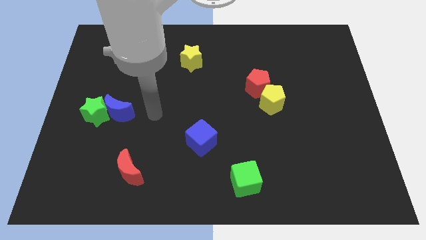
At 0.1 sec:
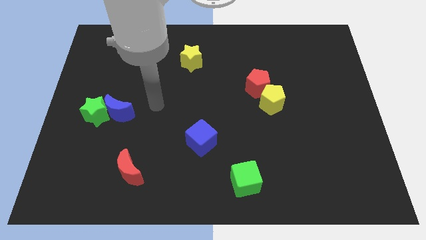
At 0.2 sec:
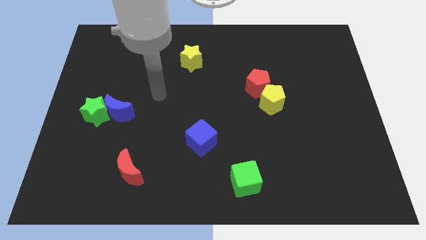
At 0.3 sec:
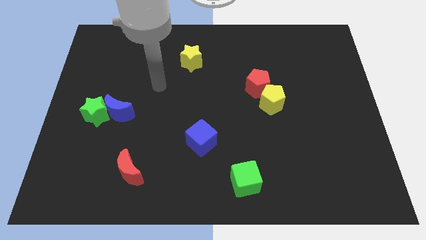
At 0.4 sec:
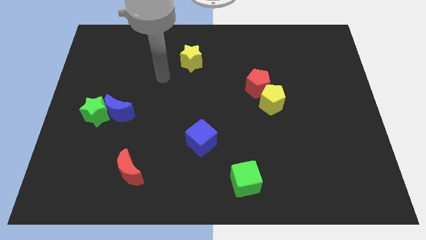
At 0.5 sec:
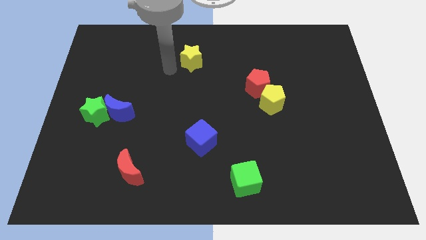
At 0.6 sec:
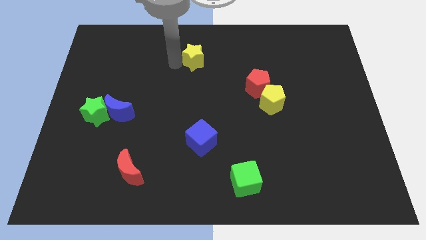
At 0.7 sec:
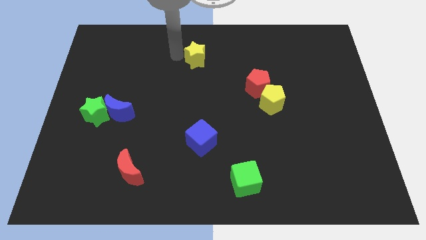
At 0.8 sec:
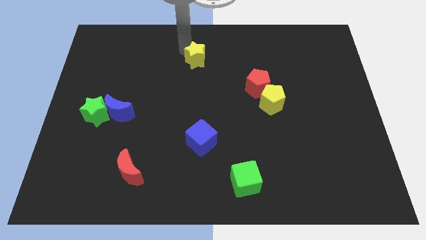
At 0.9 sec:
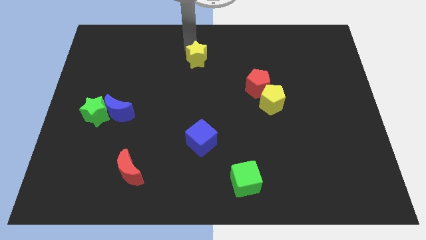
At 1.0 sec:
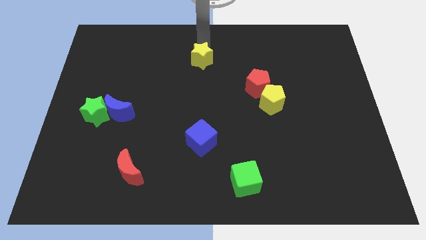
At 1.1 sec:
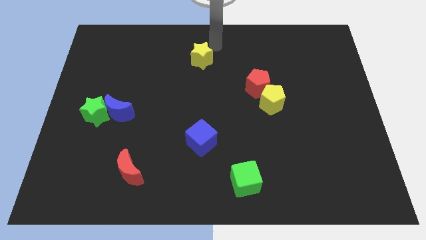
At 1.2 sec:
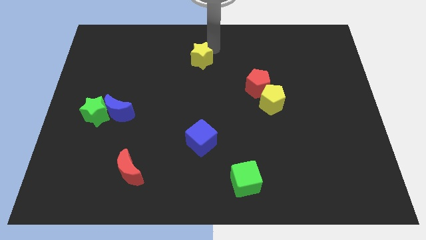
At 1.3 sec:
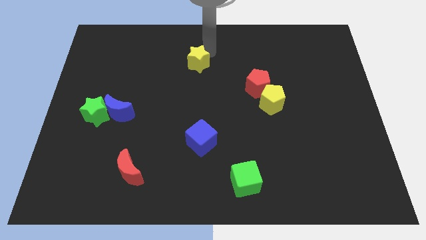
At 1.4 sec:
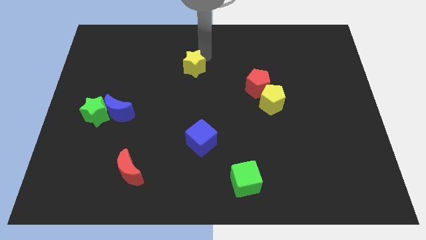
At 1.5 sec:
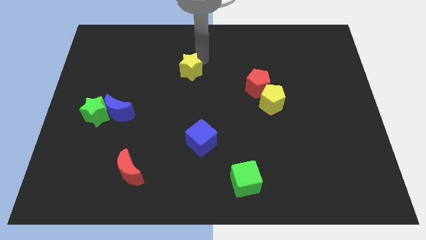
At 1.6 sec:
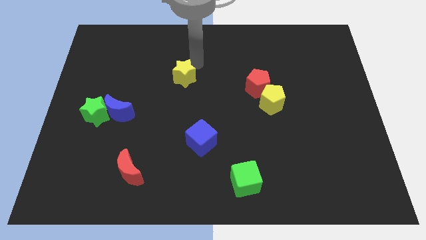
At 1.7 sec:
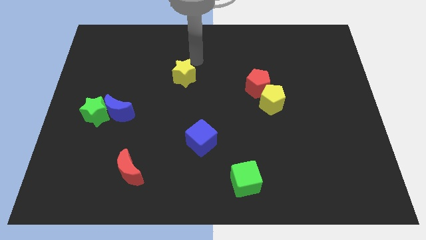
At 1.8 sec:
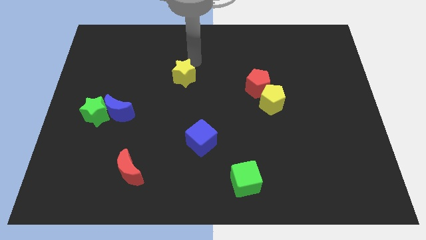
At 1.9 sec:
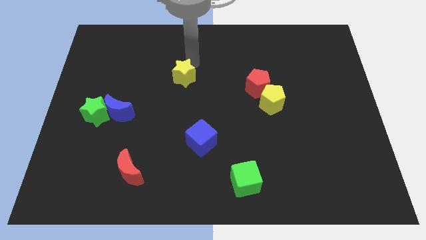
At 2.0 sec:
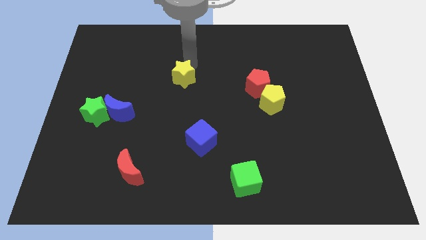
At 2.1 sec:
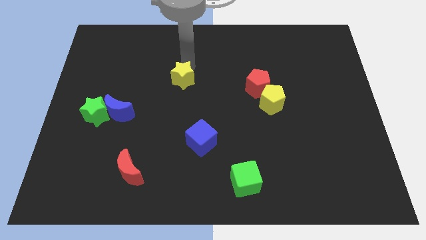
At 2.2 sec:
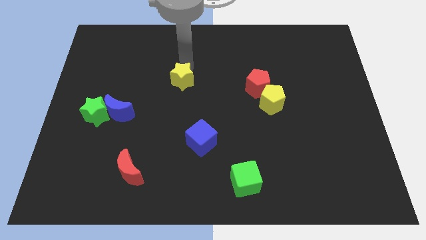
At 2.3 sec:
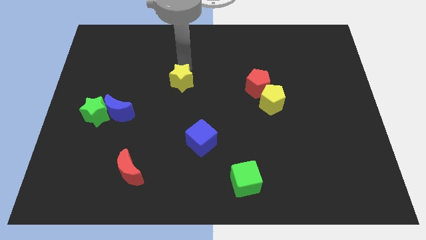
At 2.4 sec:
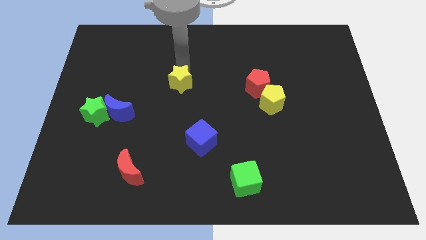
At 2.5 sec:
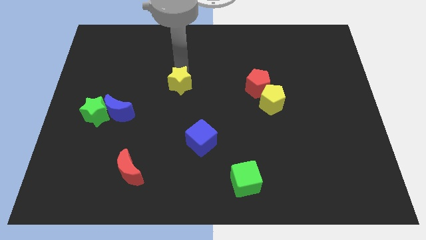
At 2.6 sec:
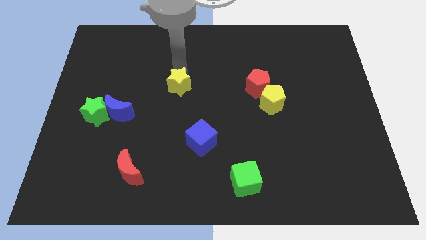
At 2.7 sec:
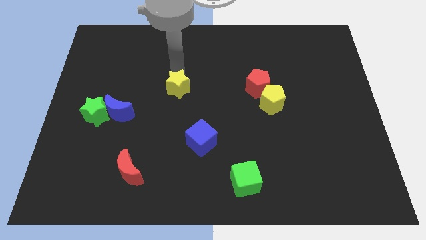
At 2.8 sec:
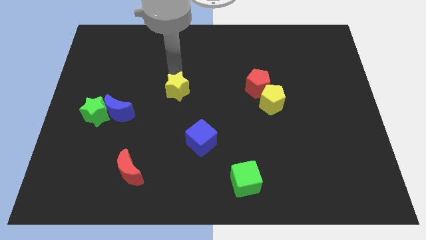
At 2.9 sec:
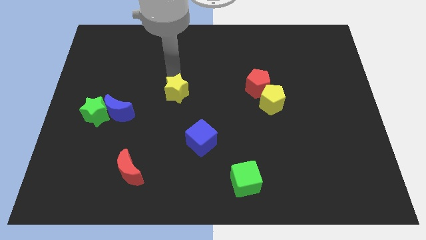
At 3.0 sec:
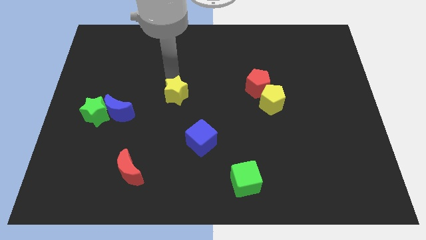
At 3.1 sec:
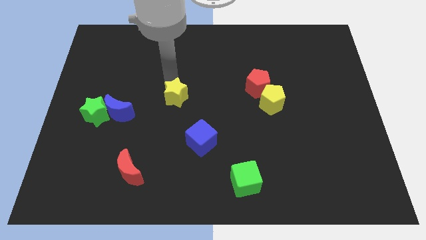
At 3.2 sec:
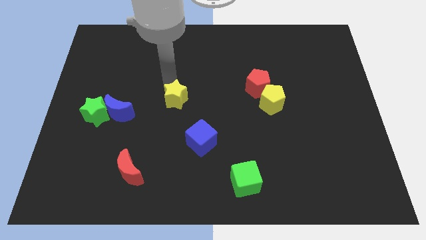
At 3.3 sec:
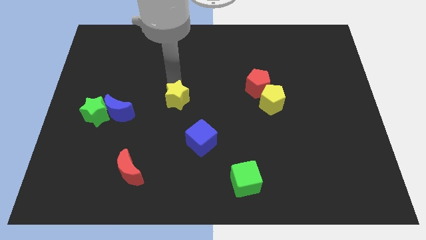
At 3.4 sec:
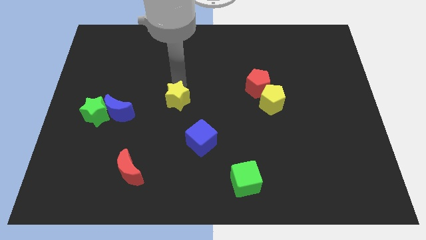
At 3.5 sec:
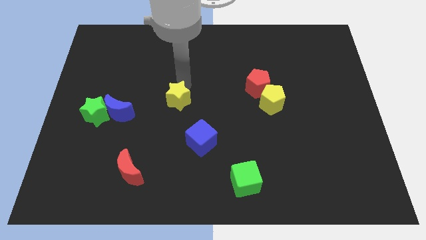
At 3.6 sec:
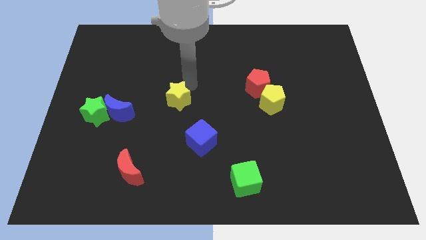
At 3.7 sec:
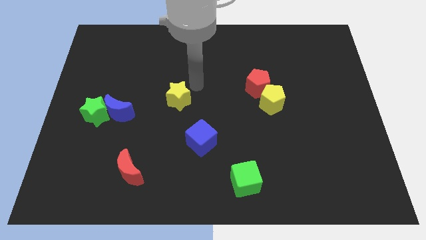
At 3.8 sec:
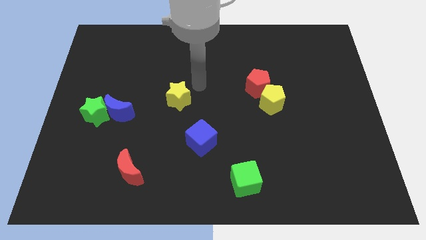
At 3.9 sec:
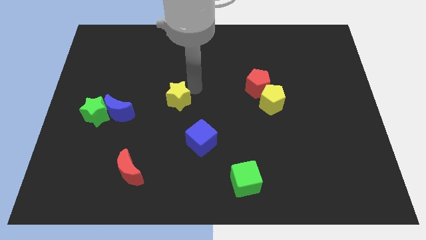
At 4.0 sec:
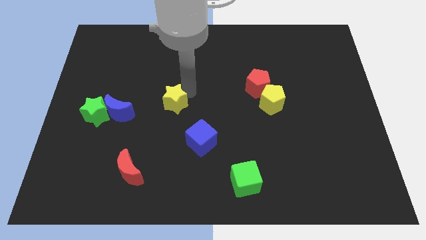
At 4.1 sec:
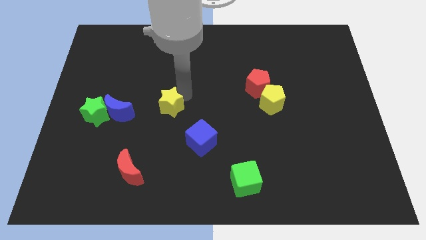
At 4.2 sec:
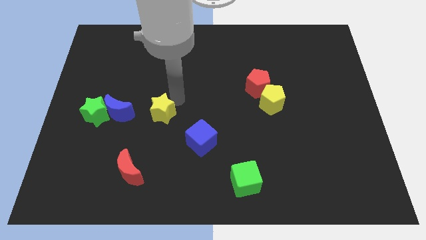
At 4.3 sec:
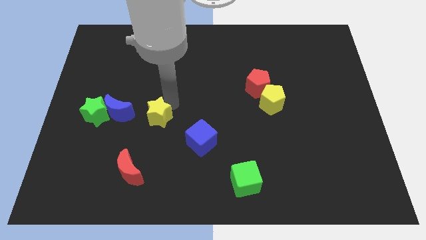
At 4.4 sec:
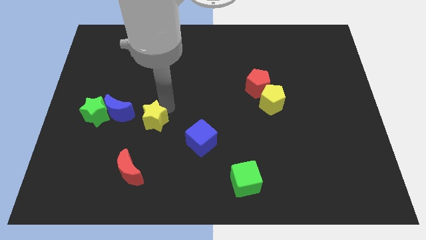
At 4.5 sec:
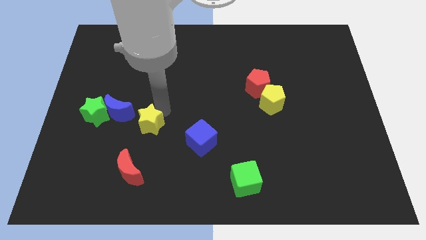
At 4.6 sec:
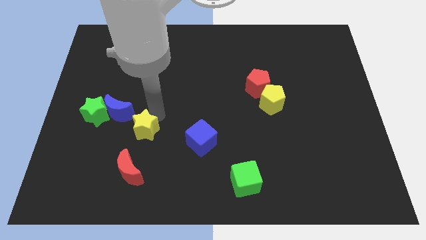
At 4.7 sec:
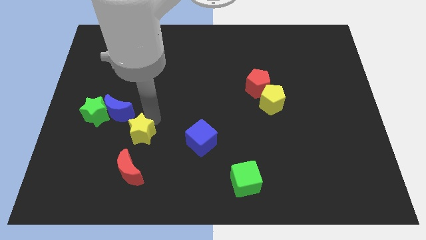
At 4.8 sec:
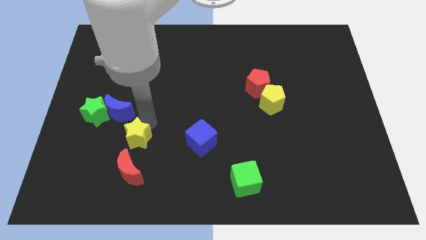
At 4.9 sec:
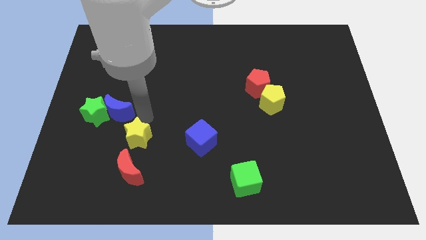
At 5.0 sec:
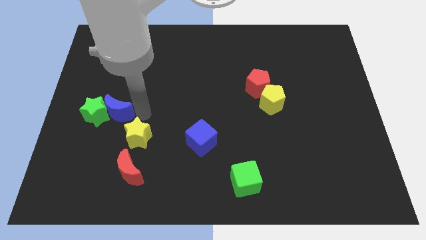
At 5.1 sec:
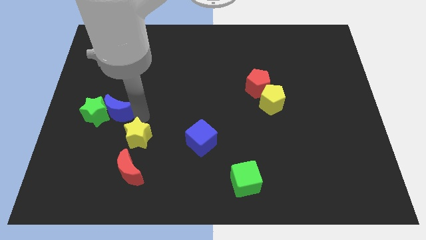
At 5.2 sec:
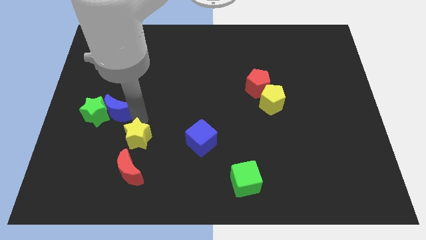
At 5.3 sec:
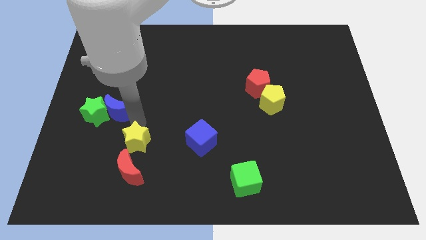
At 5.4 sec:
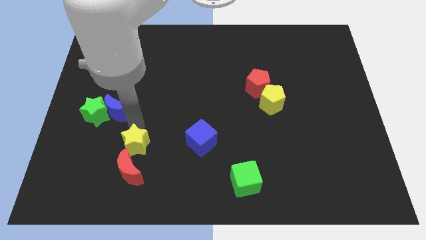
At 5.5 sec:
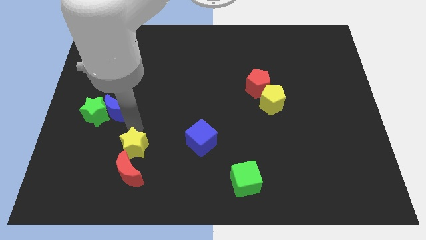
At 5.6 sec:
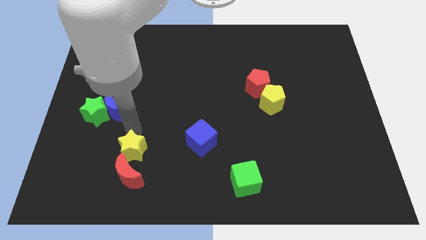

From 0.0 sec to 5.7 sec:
move the yellow star to the red moon

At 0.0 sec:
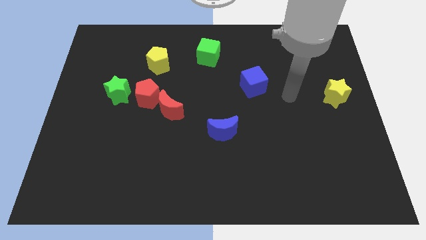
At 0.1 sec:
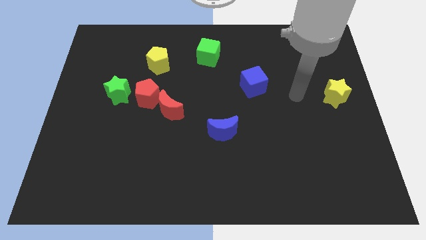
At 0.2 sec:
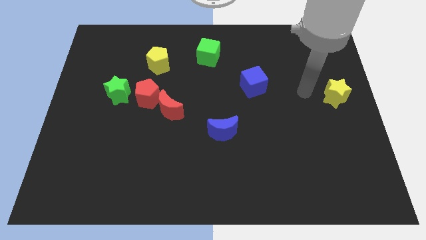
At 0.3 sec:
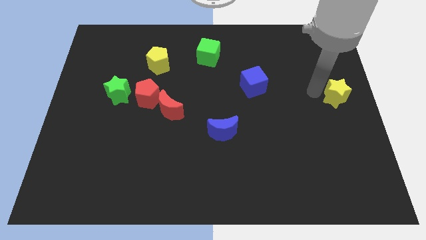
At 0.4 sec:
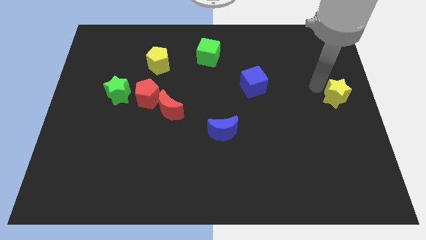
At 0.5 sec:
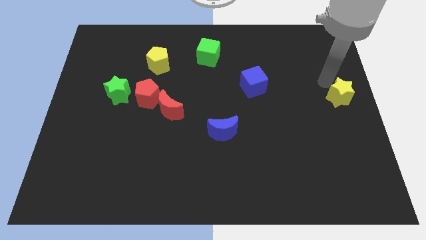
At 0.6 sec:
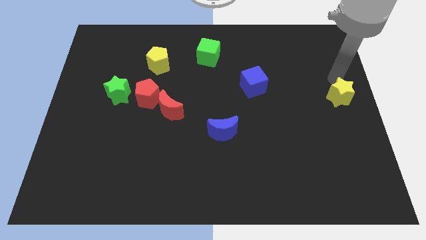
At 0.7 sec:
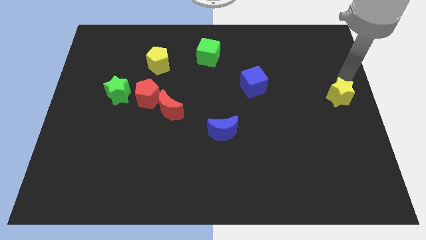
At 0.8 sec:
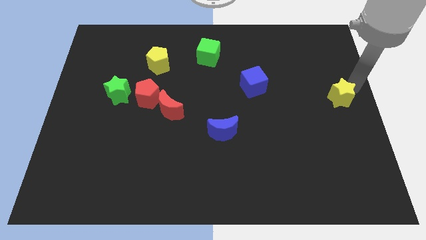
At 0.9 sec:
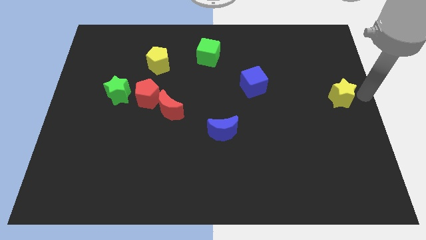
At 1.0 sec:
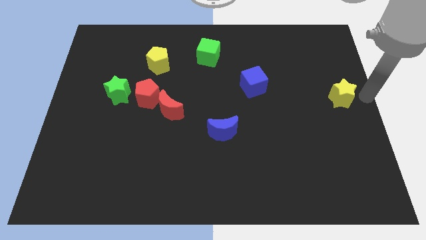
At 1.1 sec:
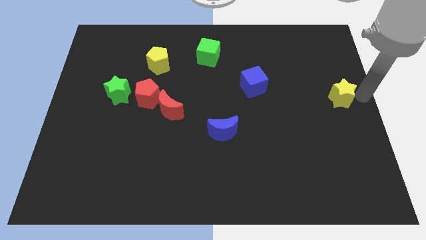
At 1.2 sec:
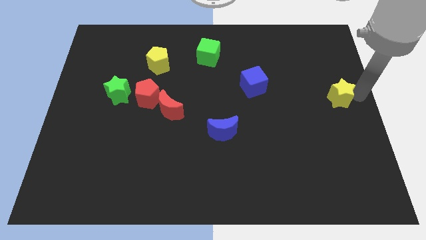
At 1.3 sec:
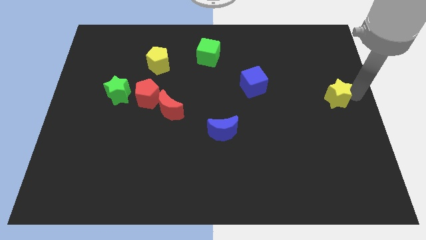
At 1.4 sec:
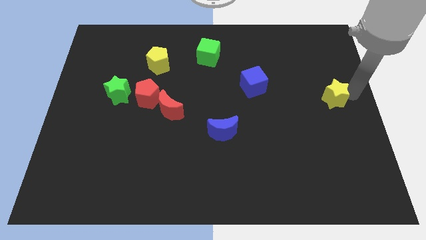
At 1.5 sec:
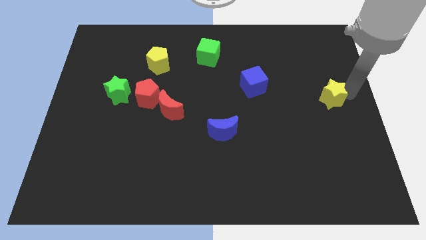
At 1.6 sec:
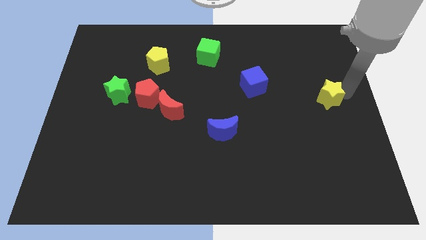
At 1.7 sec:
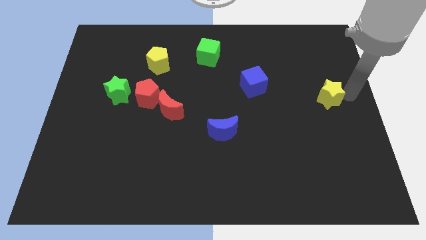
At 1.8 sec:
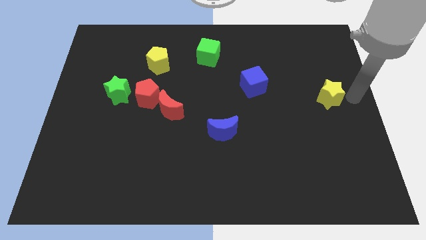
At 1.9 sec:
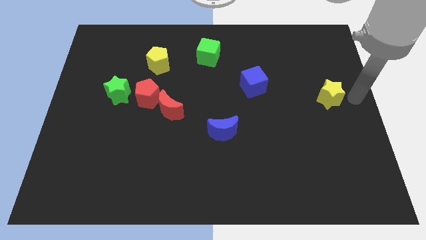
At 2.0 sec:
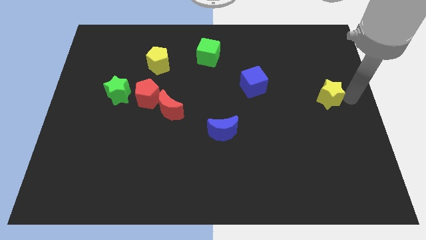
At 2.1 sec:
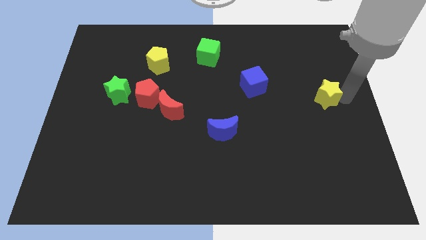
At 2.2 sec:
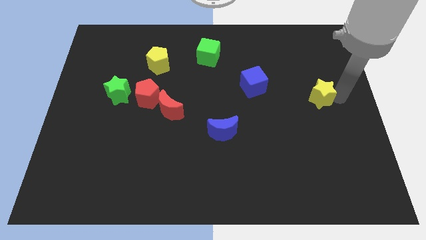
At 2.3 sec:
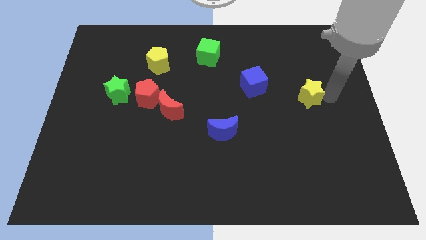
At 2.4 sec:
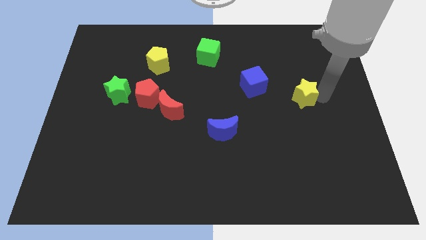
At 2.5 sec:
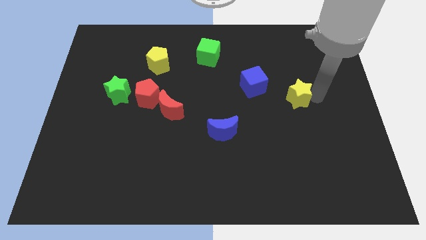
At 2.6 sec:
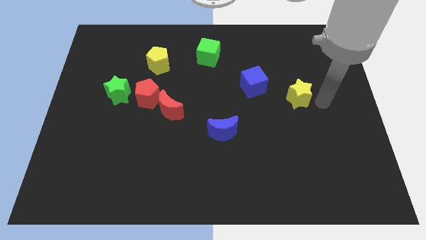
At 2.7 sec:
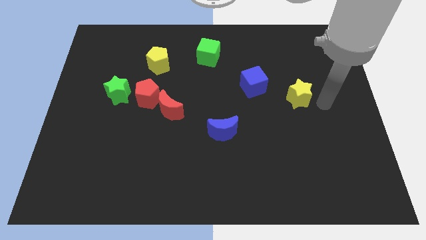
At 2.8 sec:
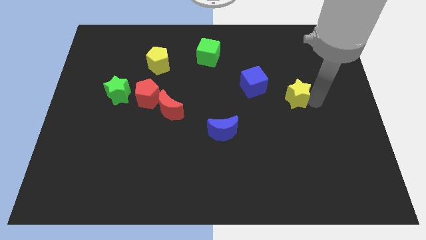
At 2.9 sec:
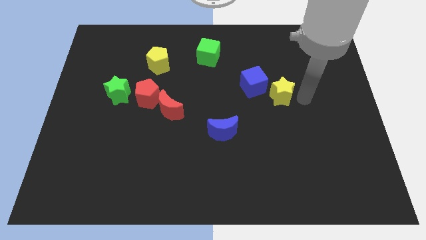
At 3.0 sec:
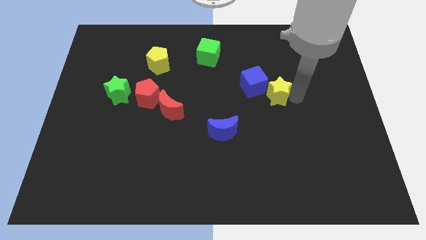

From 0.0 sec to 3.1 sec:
put the yellow star to the blue cube
